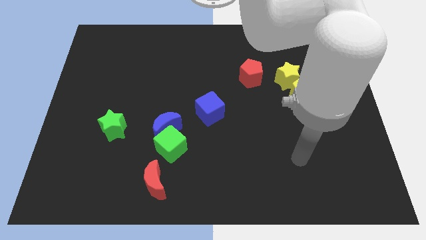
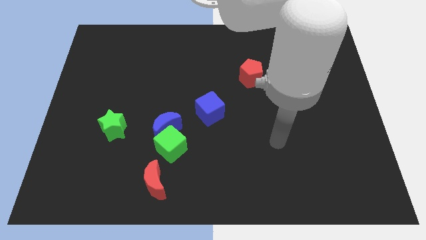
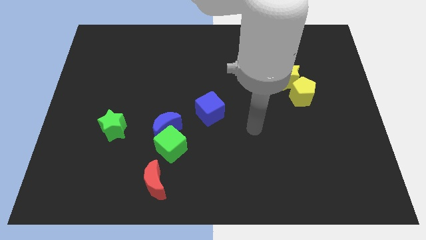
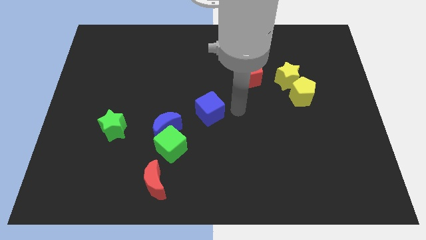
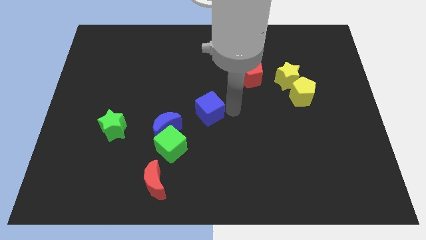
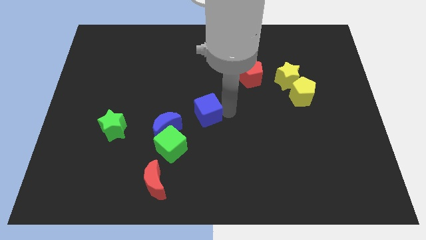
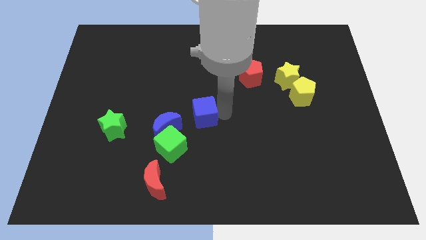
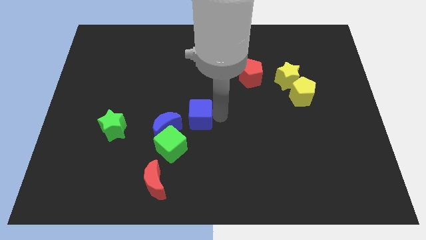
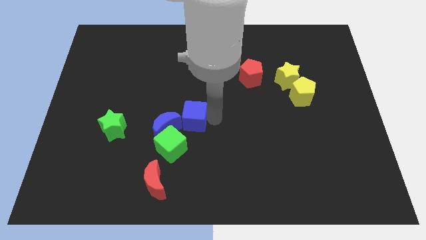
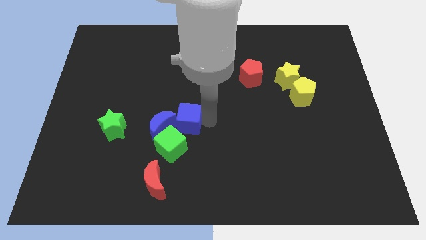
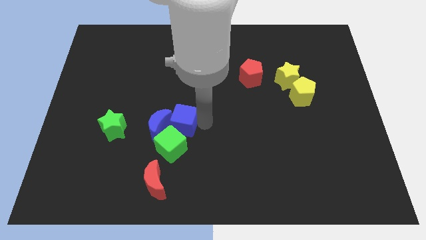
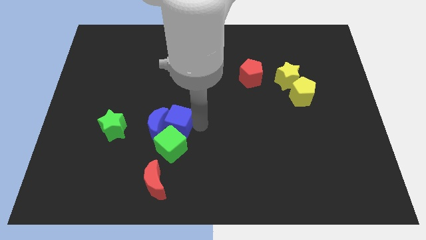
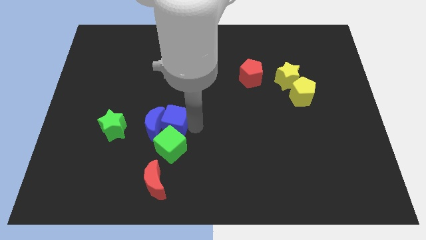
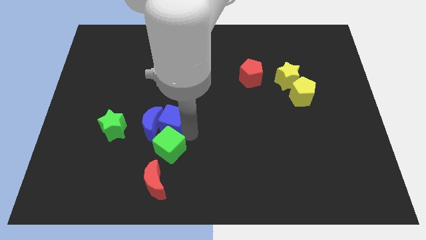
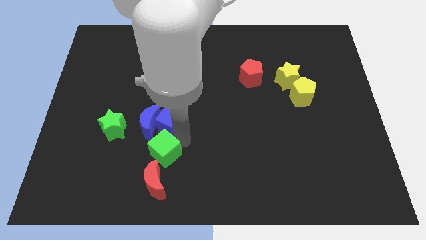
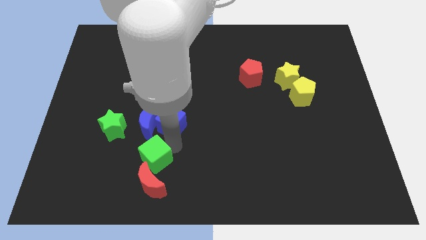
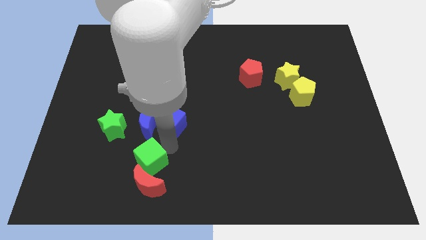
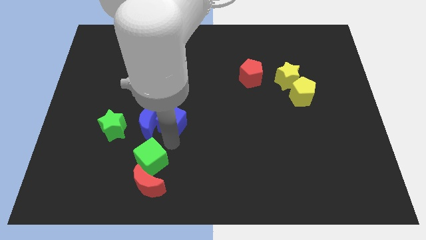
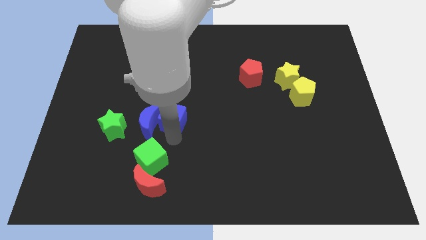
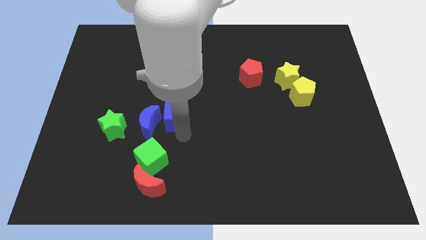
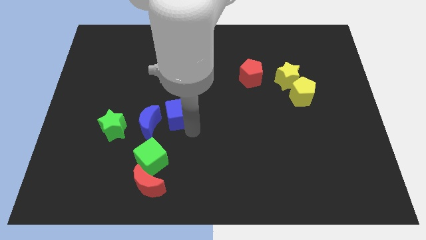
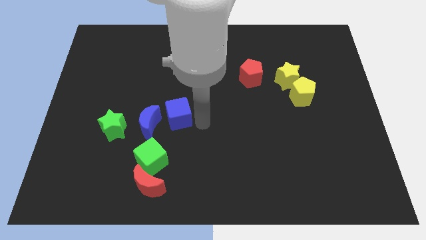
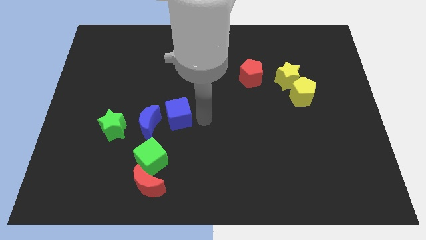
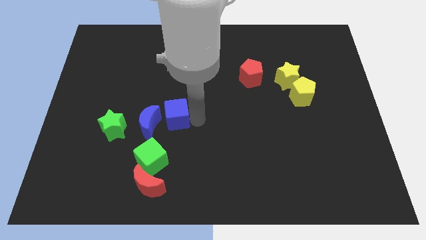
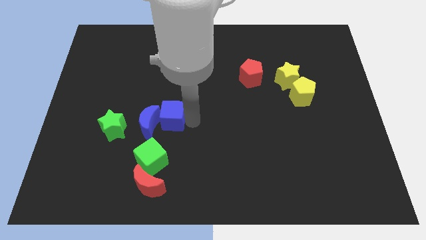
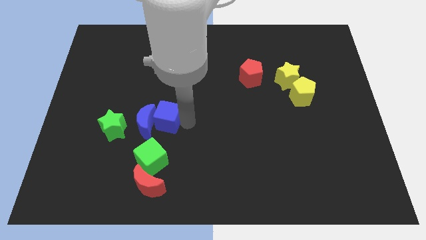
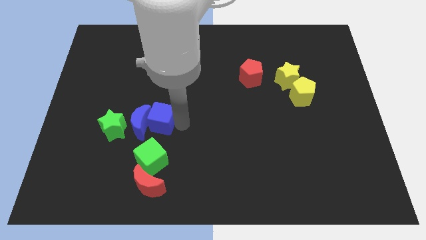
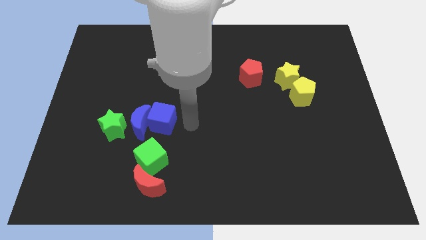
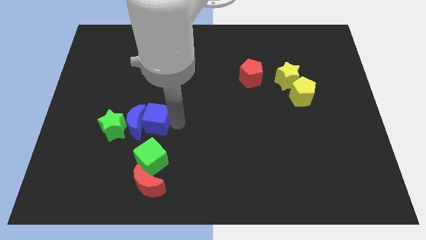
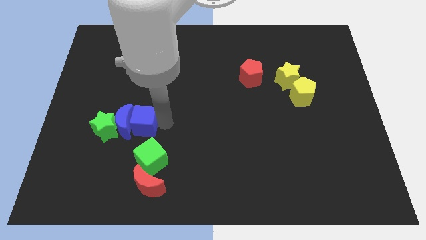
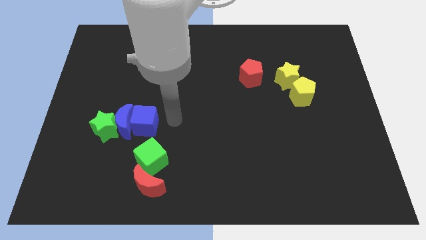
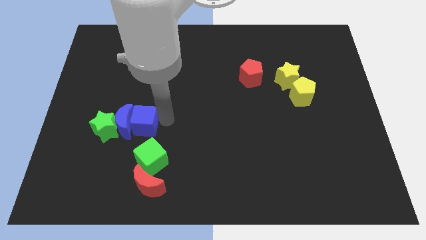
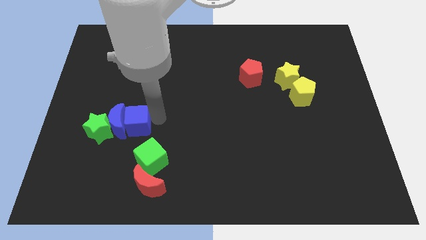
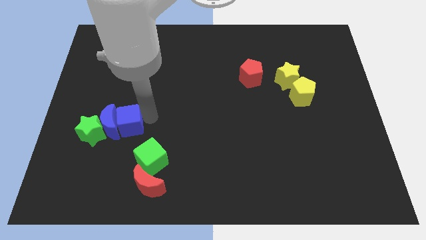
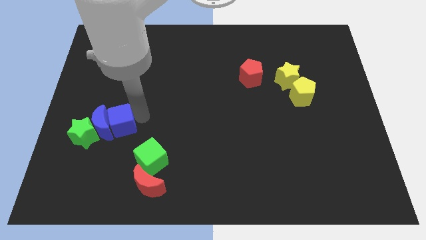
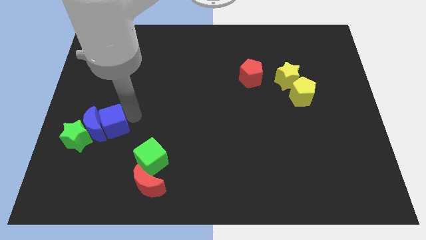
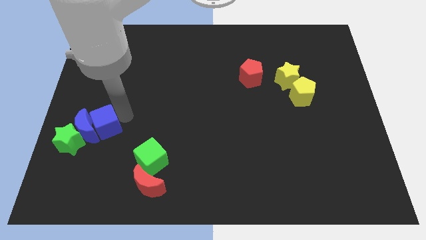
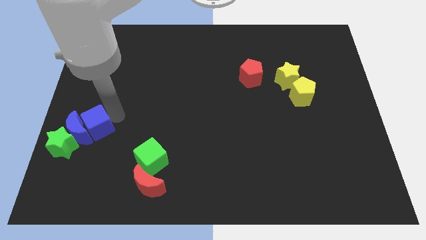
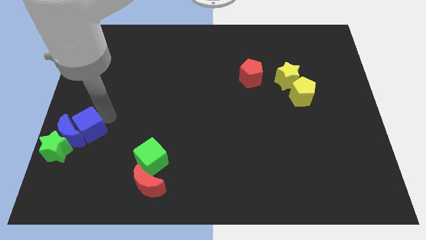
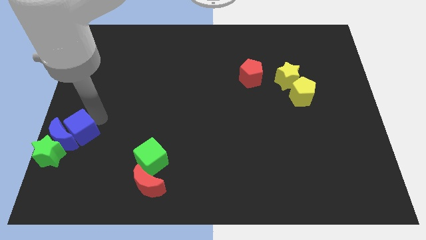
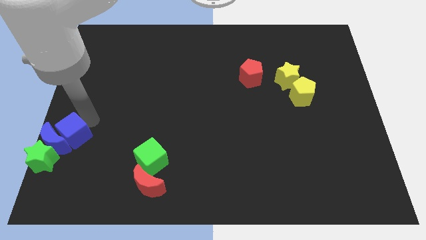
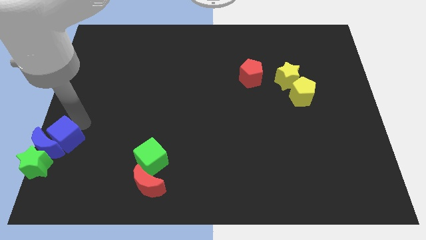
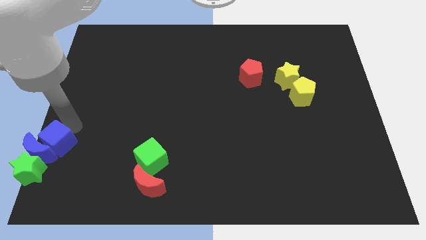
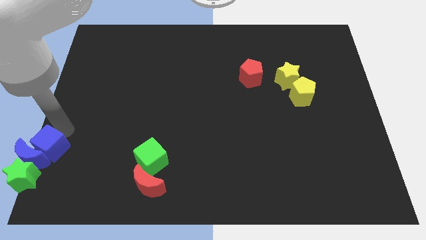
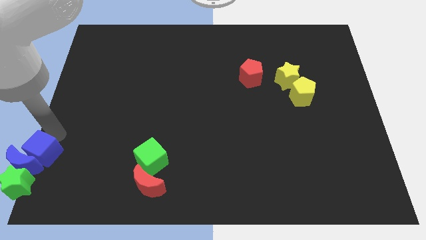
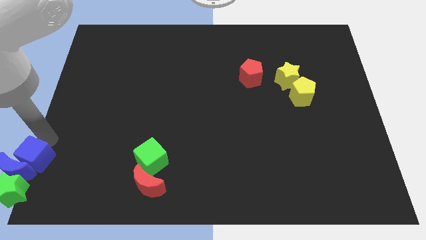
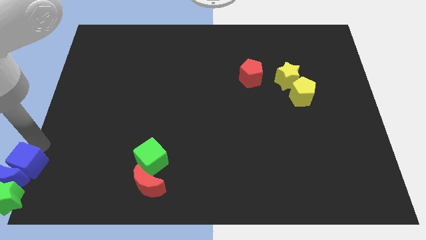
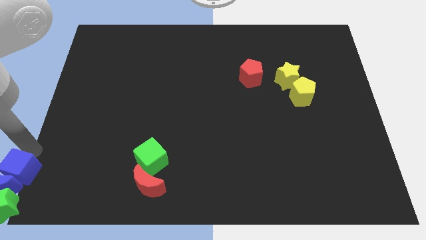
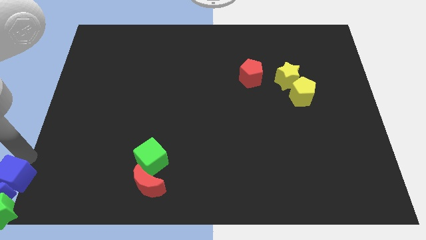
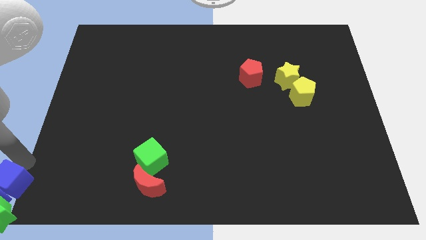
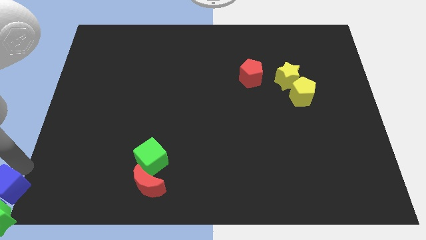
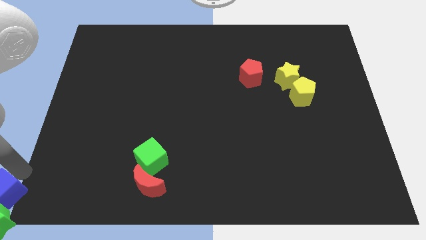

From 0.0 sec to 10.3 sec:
push the blue cube next to the green star

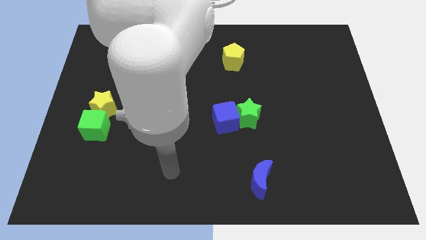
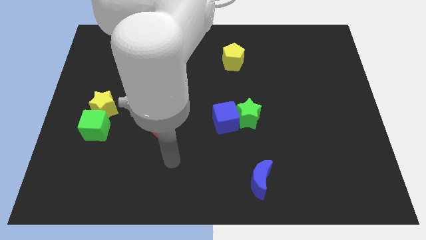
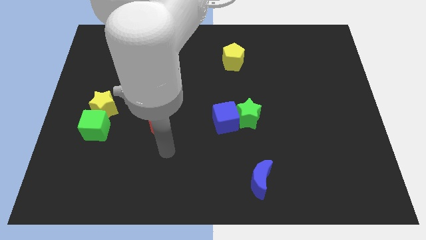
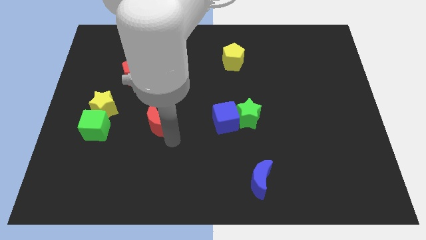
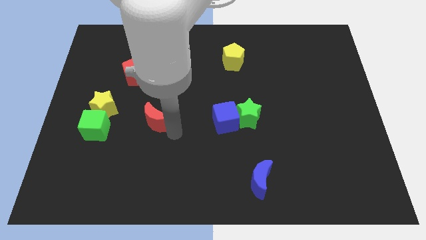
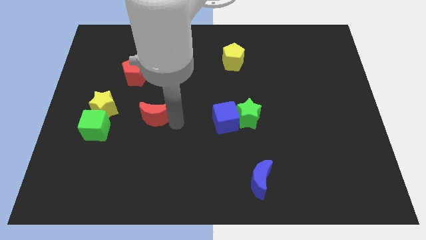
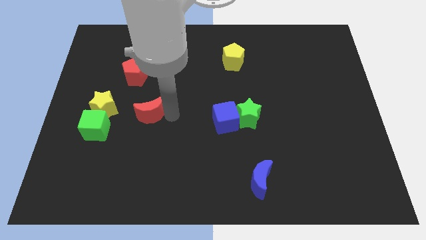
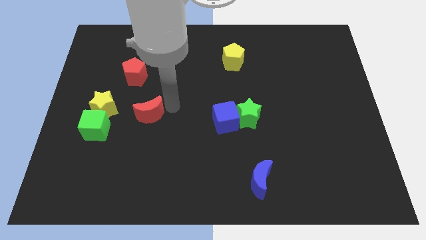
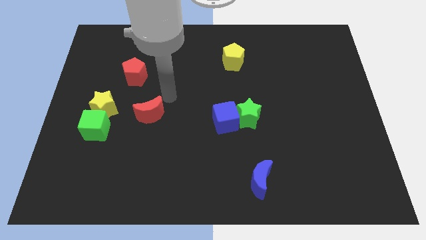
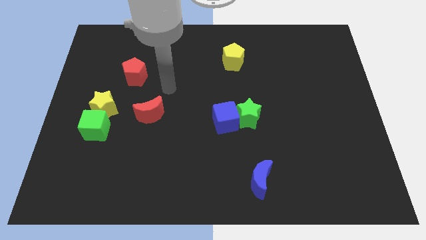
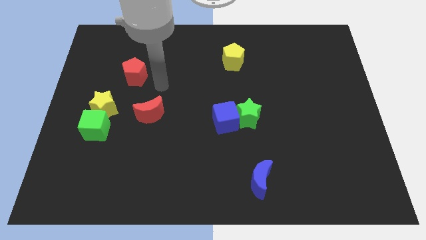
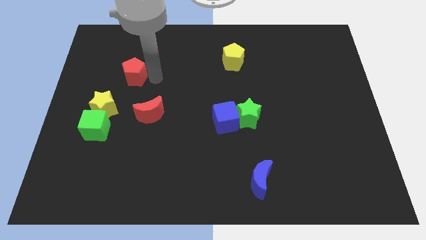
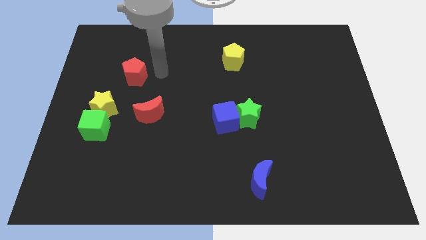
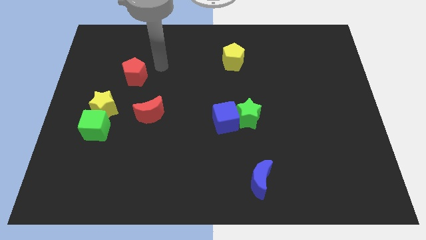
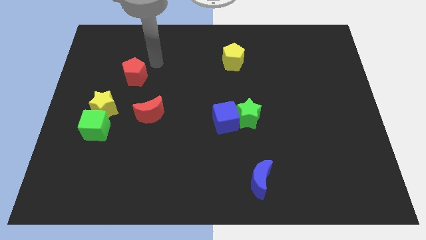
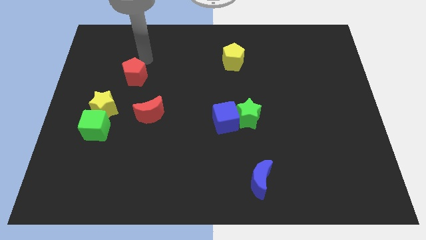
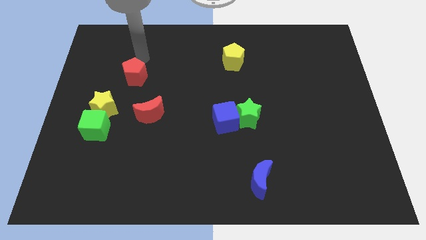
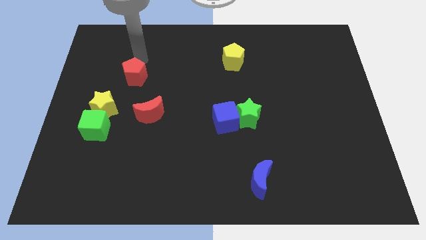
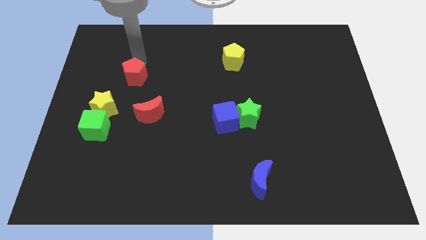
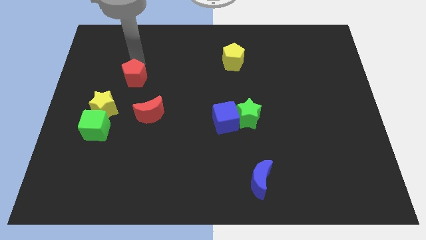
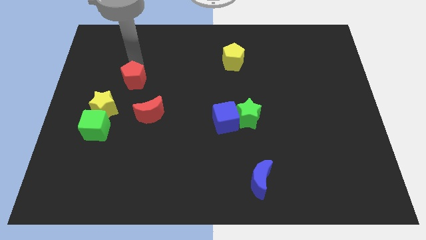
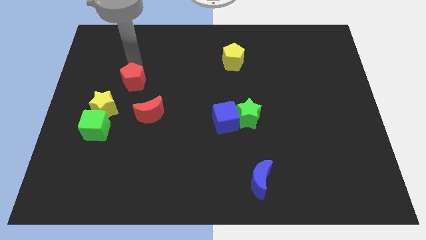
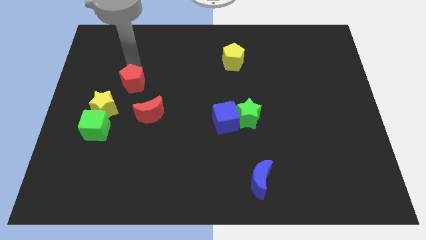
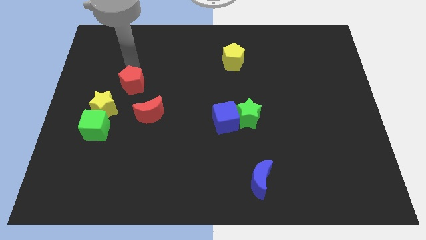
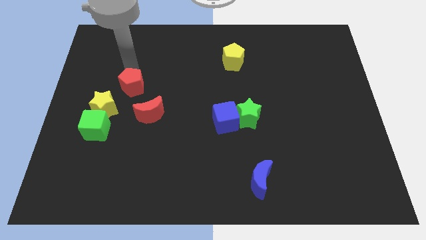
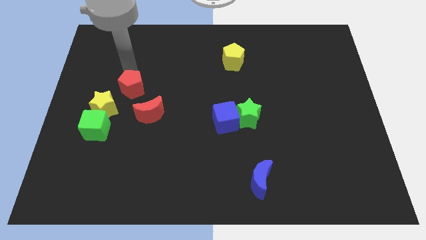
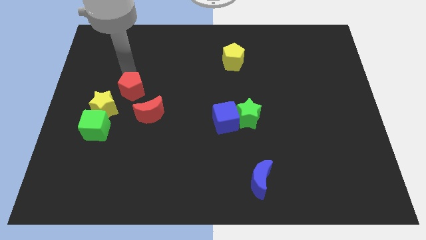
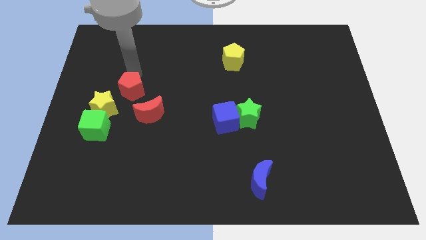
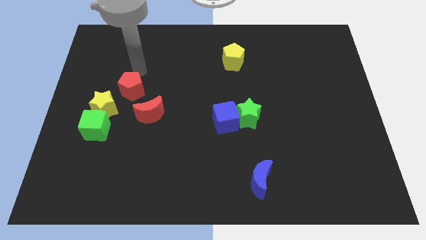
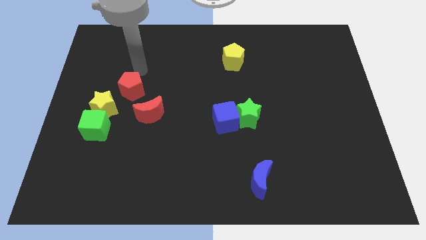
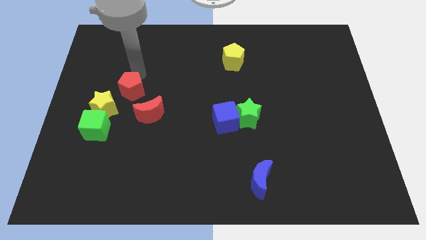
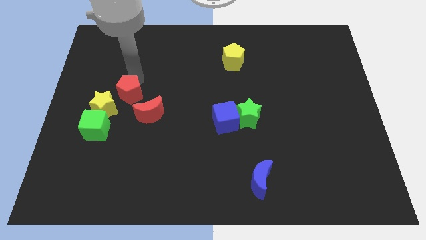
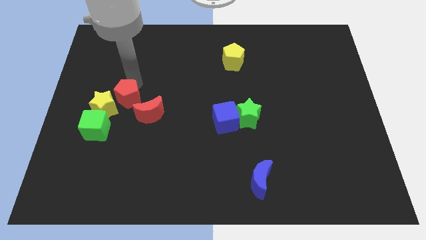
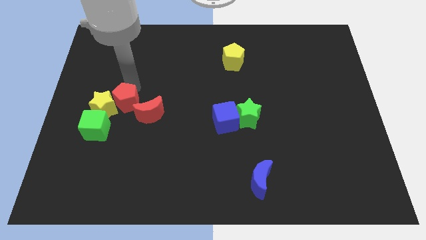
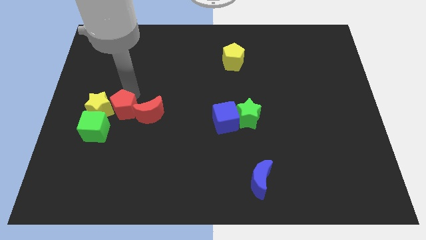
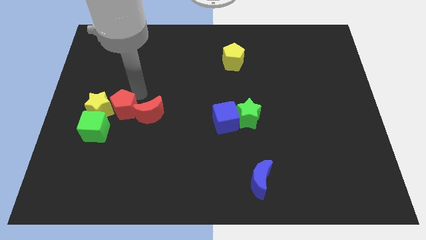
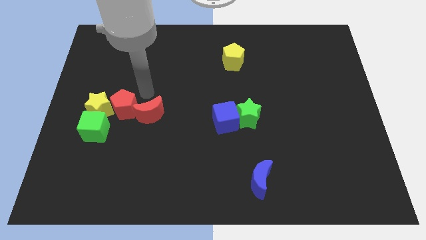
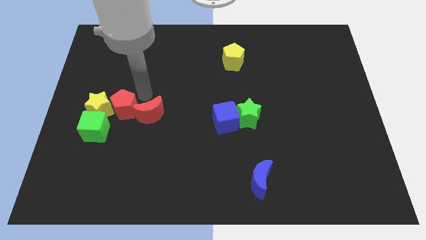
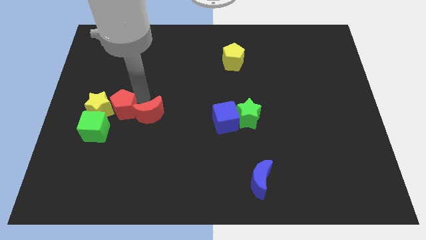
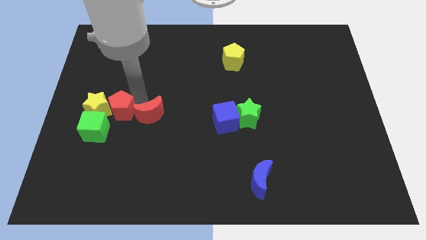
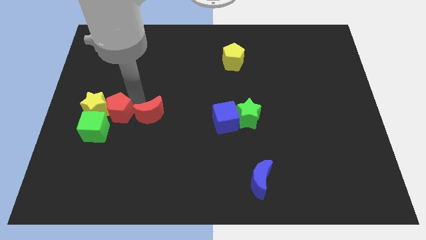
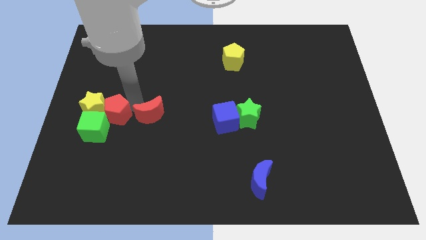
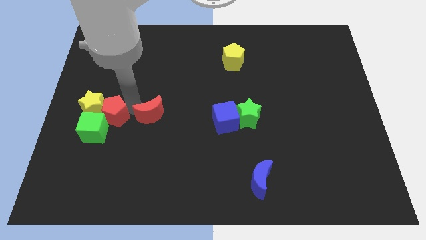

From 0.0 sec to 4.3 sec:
push the red pentagon close to the green cube
